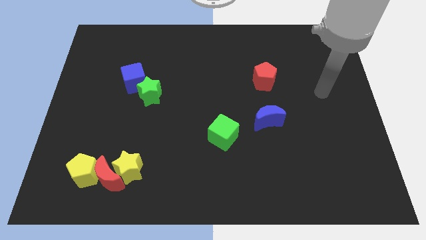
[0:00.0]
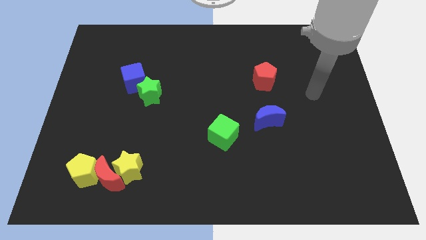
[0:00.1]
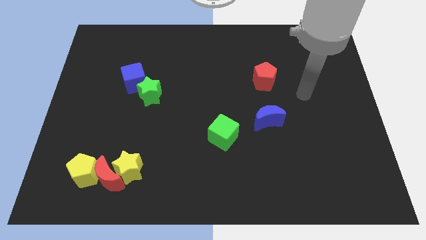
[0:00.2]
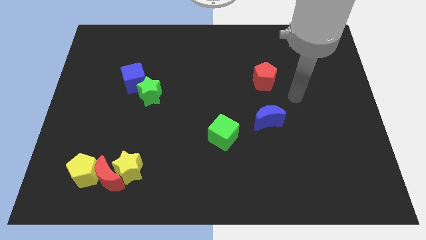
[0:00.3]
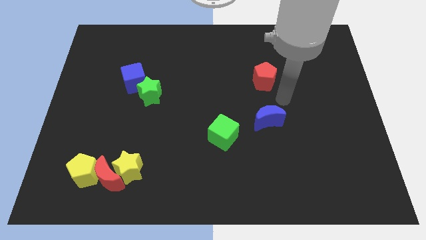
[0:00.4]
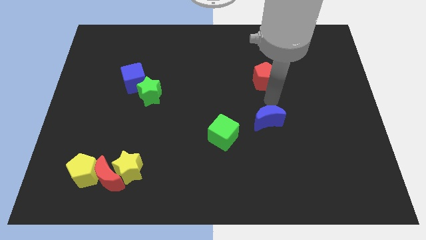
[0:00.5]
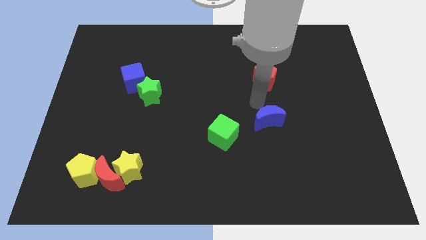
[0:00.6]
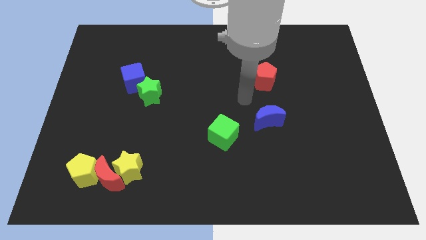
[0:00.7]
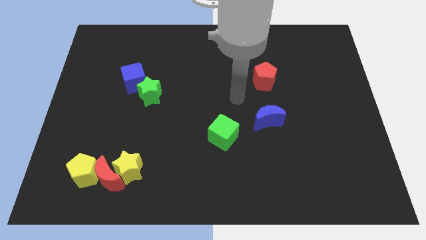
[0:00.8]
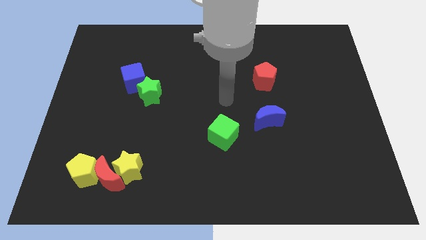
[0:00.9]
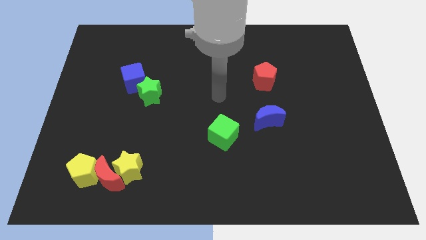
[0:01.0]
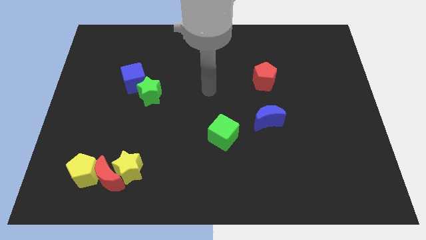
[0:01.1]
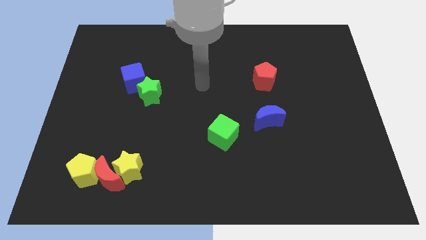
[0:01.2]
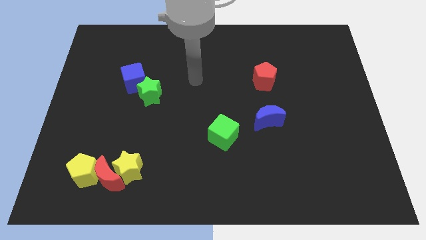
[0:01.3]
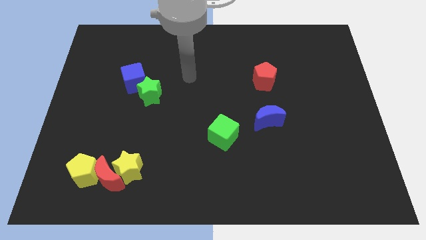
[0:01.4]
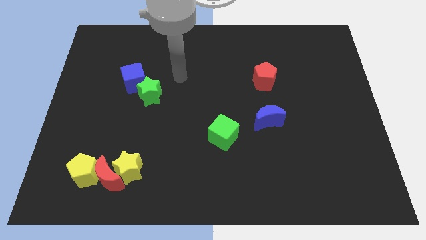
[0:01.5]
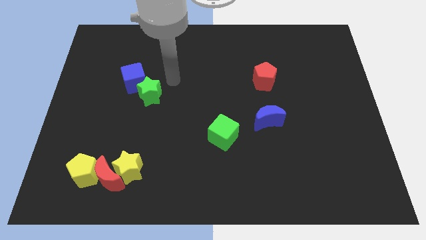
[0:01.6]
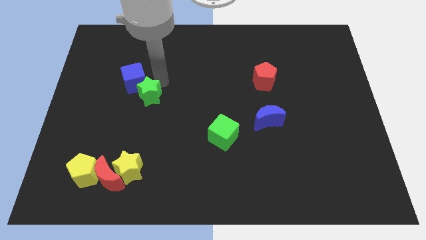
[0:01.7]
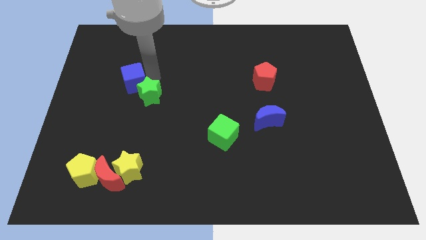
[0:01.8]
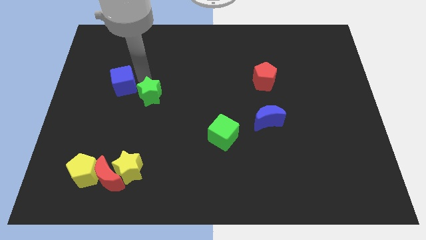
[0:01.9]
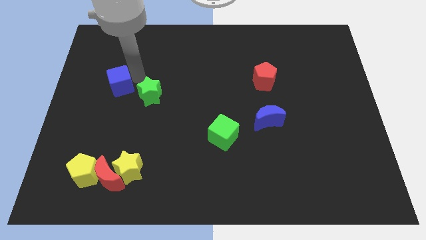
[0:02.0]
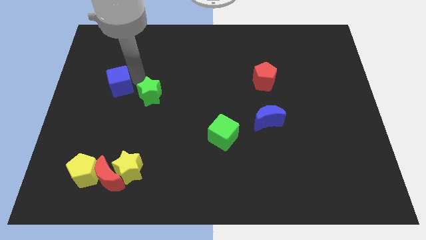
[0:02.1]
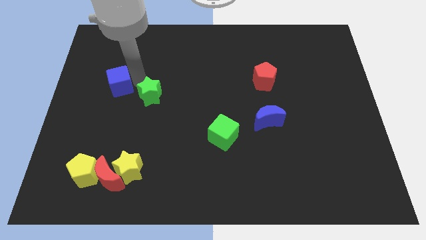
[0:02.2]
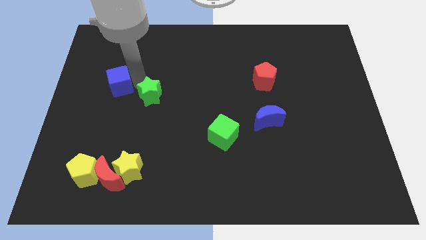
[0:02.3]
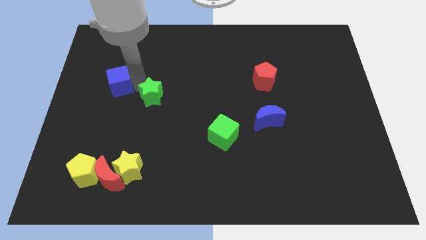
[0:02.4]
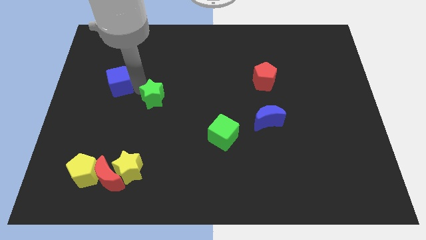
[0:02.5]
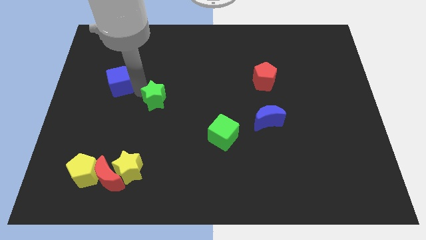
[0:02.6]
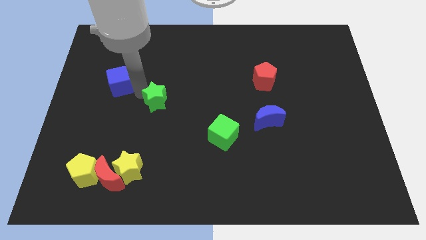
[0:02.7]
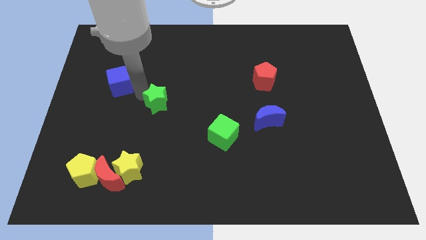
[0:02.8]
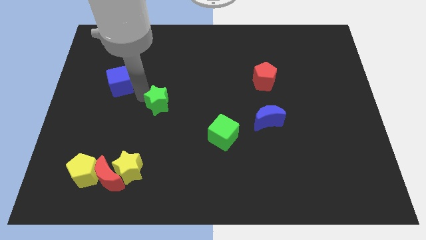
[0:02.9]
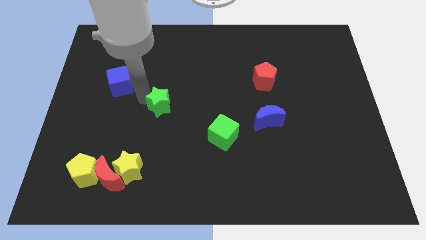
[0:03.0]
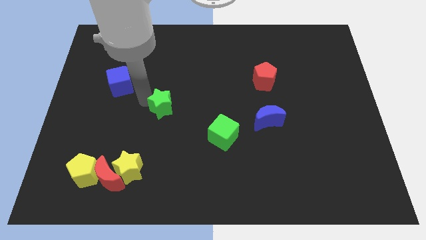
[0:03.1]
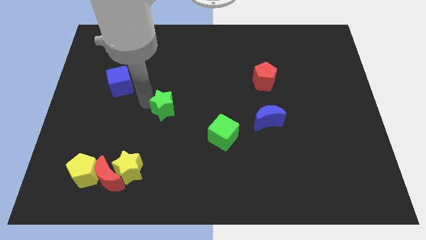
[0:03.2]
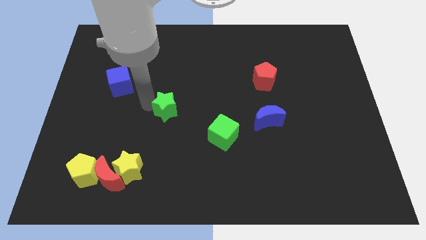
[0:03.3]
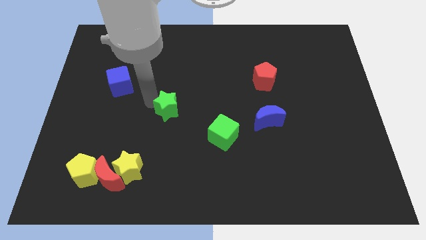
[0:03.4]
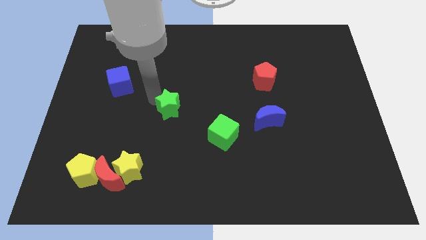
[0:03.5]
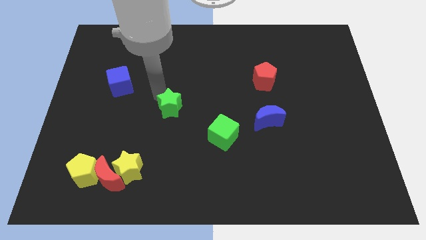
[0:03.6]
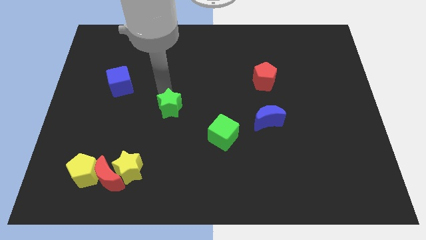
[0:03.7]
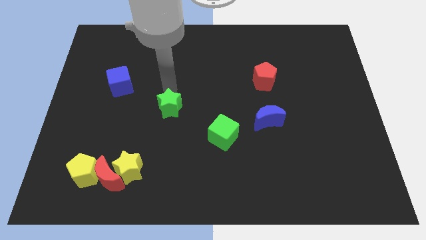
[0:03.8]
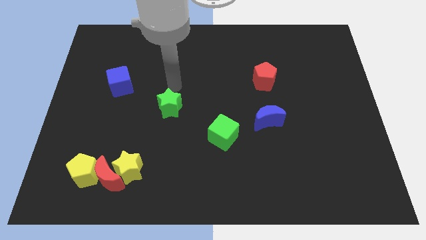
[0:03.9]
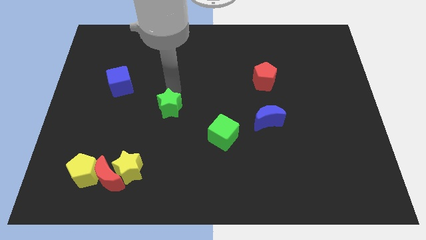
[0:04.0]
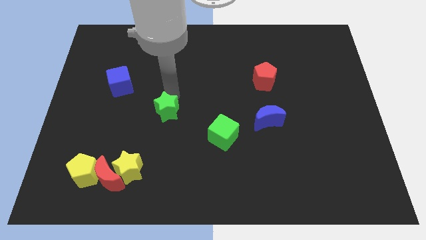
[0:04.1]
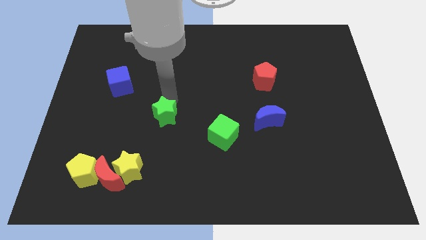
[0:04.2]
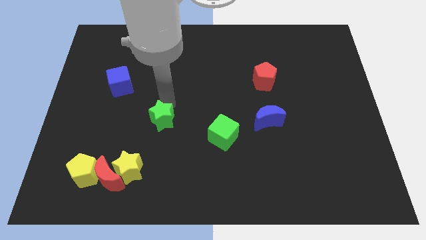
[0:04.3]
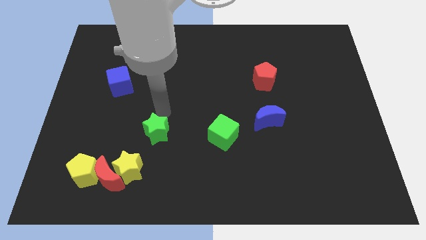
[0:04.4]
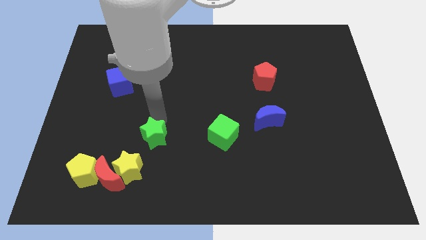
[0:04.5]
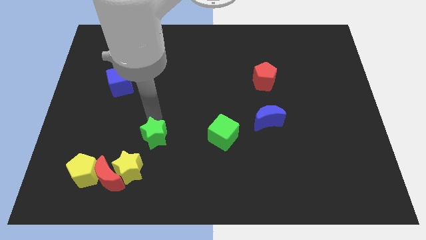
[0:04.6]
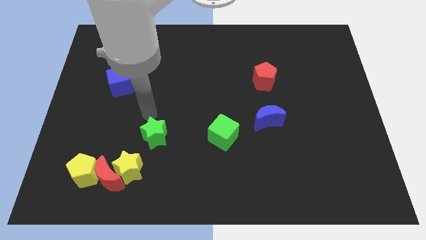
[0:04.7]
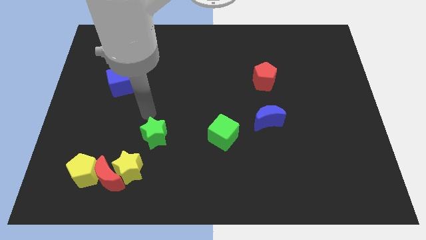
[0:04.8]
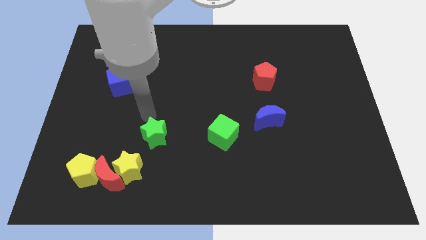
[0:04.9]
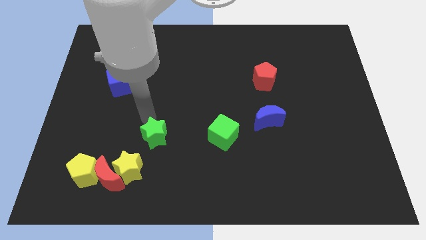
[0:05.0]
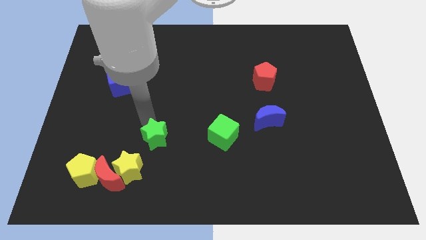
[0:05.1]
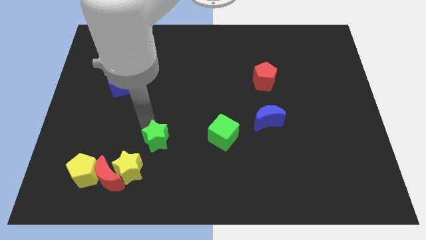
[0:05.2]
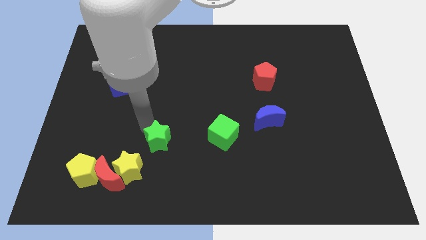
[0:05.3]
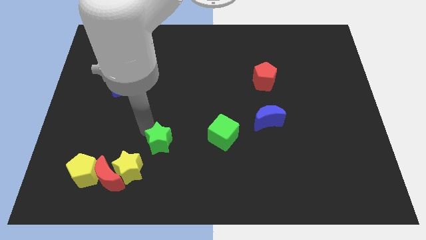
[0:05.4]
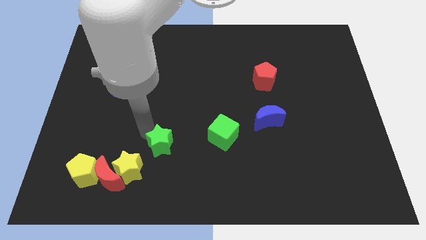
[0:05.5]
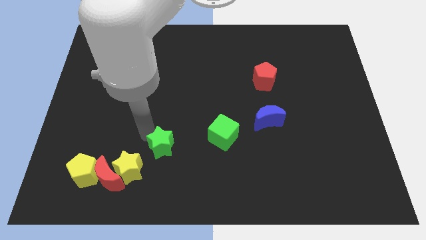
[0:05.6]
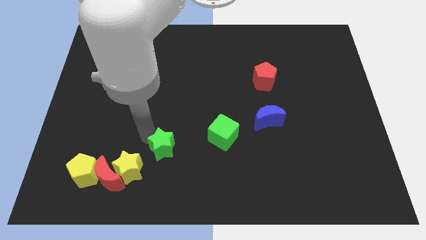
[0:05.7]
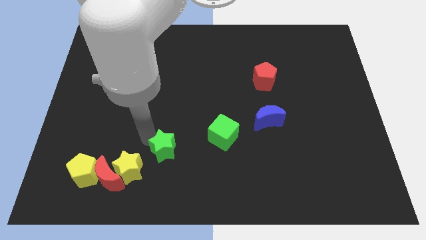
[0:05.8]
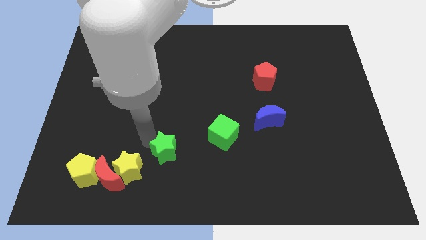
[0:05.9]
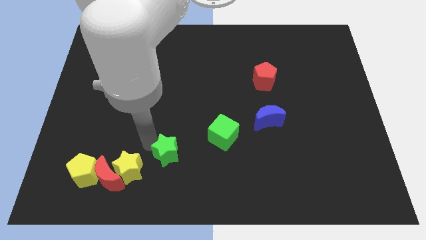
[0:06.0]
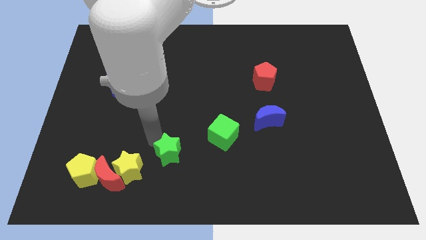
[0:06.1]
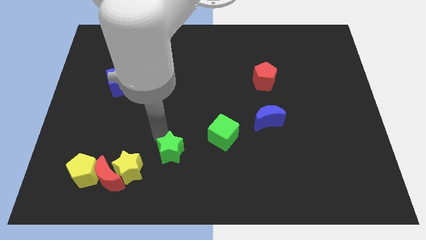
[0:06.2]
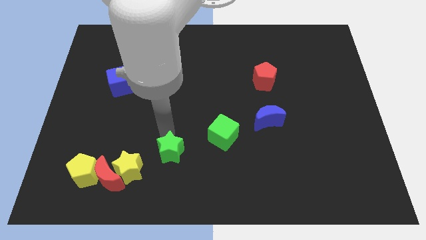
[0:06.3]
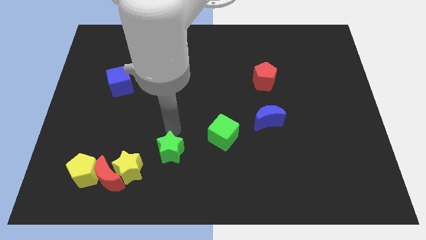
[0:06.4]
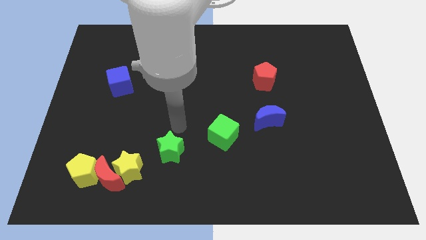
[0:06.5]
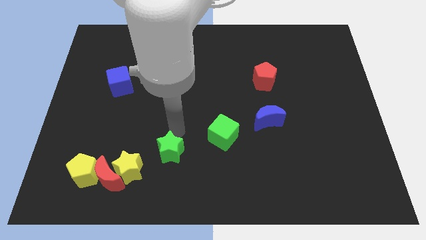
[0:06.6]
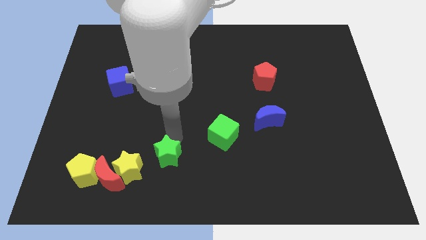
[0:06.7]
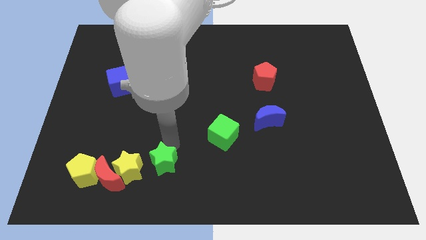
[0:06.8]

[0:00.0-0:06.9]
push the green star to the right side of the red moon
